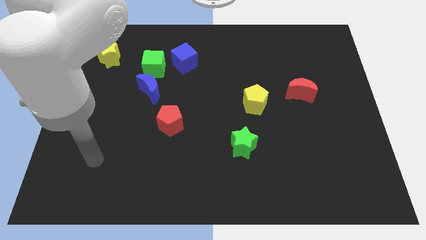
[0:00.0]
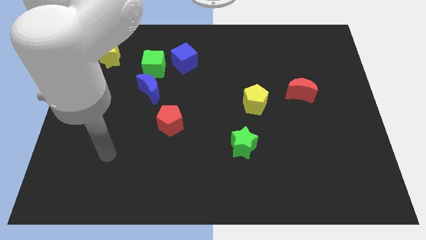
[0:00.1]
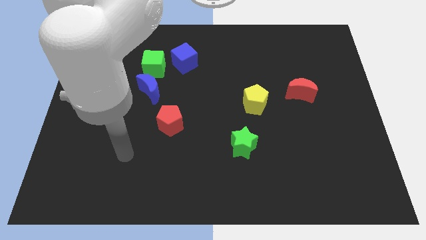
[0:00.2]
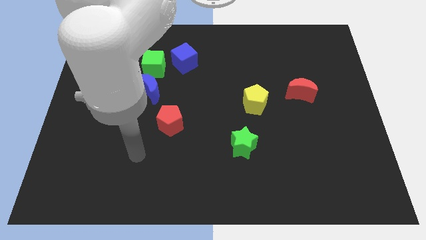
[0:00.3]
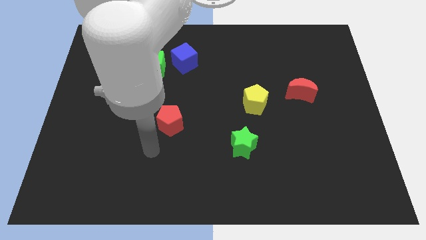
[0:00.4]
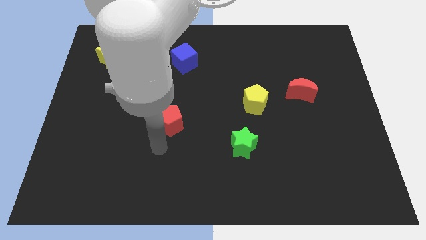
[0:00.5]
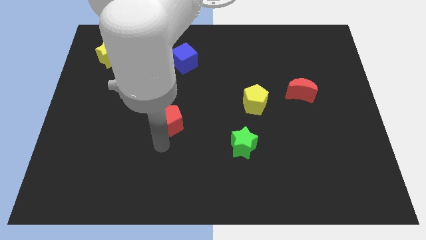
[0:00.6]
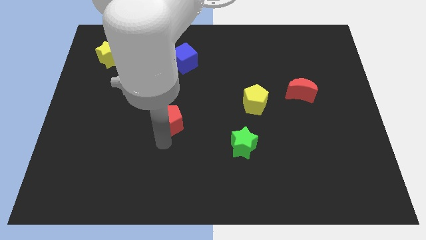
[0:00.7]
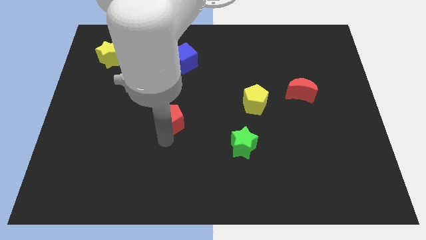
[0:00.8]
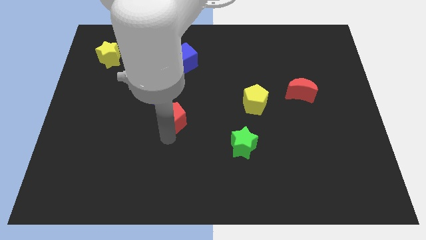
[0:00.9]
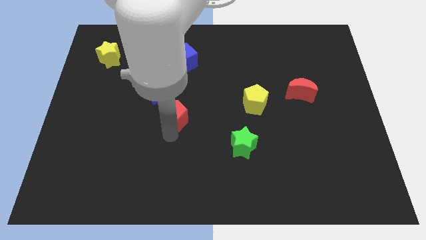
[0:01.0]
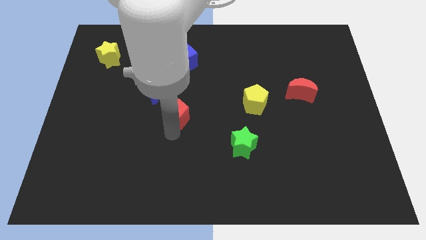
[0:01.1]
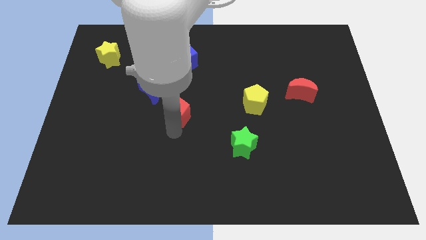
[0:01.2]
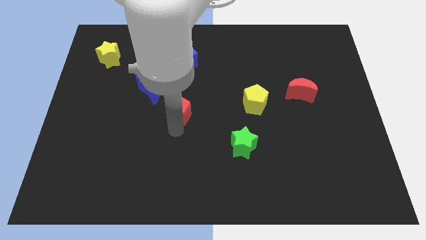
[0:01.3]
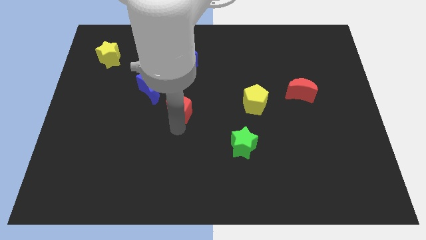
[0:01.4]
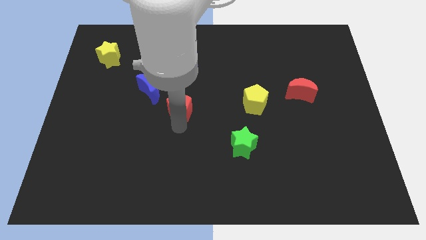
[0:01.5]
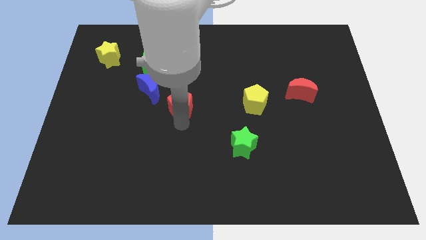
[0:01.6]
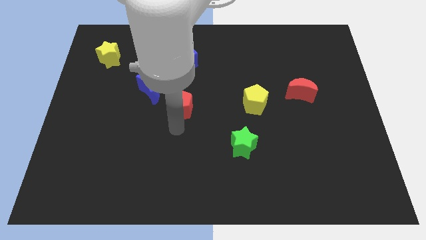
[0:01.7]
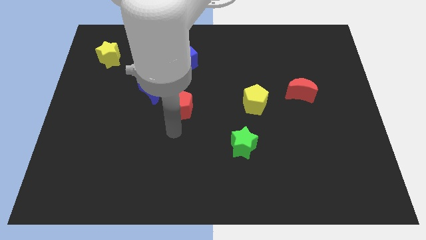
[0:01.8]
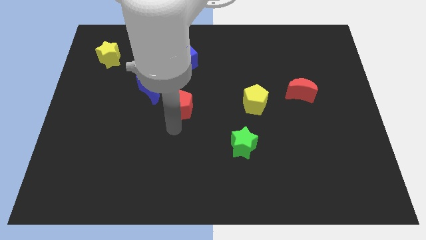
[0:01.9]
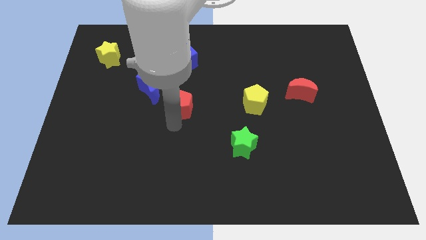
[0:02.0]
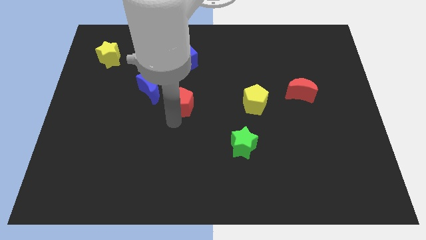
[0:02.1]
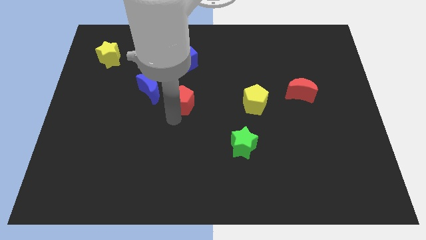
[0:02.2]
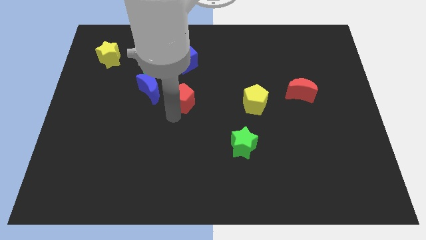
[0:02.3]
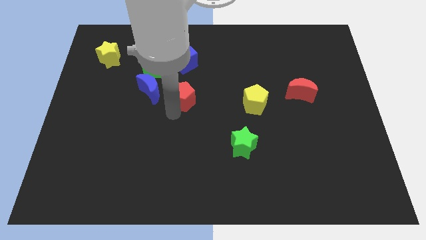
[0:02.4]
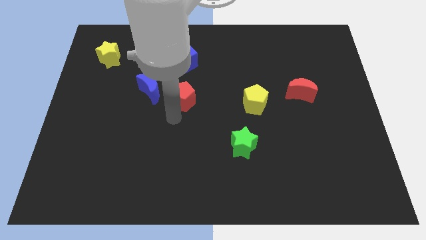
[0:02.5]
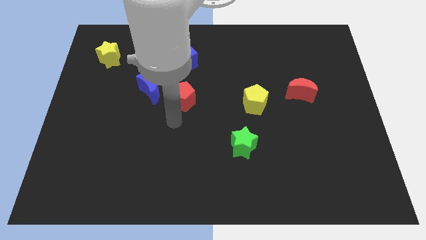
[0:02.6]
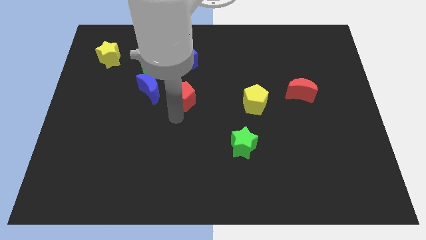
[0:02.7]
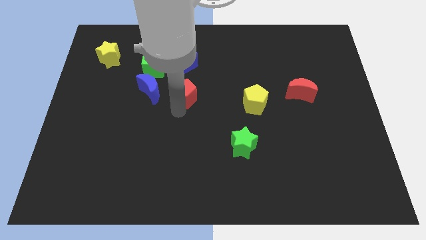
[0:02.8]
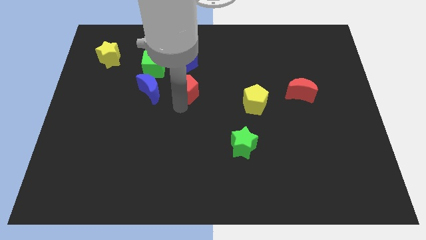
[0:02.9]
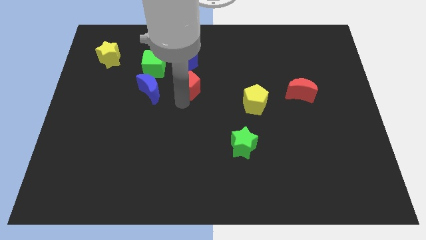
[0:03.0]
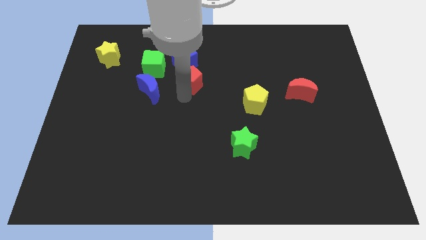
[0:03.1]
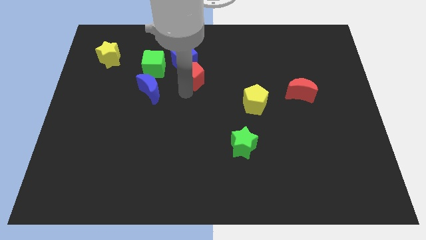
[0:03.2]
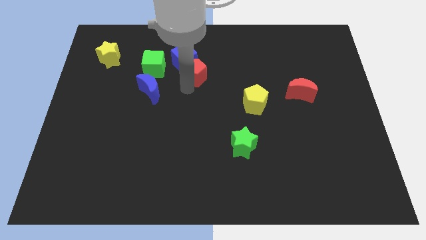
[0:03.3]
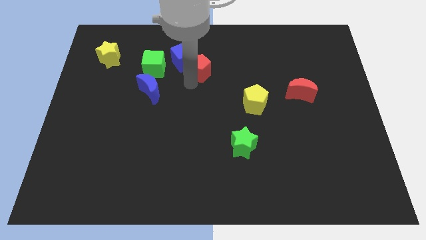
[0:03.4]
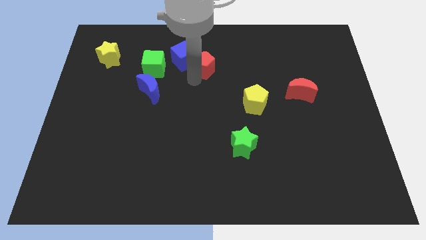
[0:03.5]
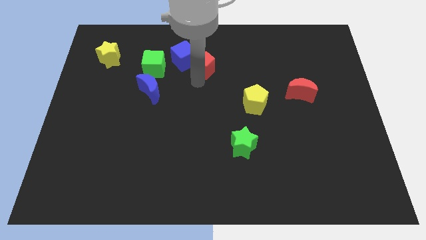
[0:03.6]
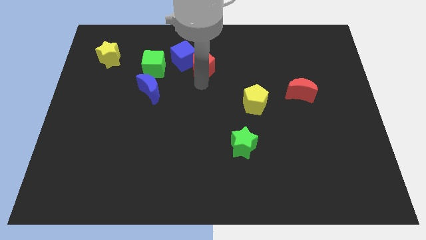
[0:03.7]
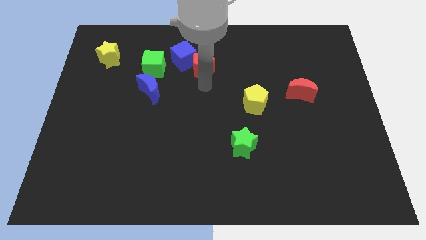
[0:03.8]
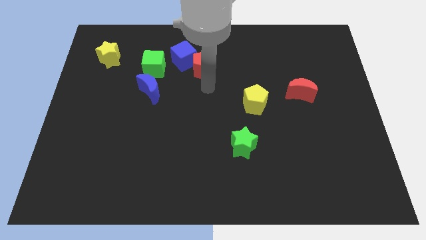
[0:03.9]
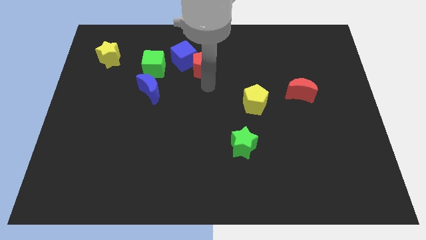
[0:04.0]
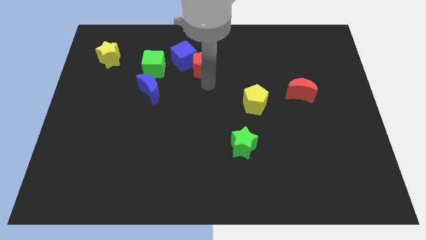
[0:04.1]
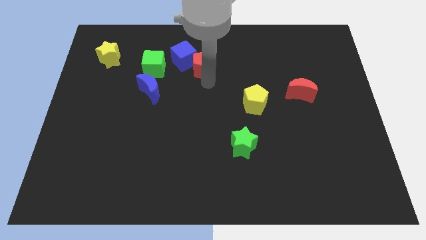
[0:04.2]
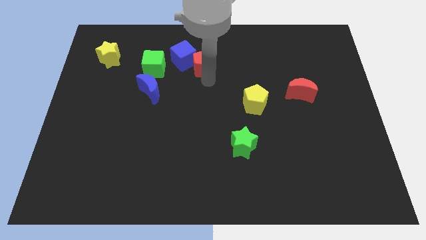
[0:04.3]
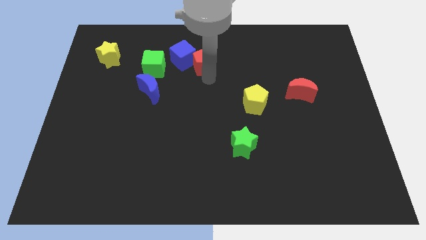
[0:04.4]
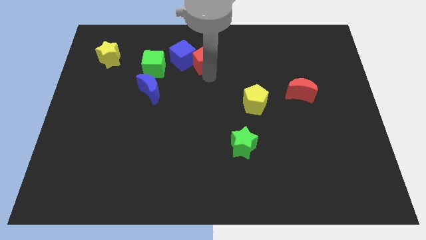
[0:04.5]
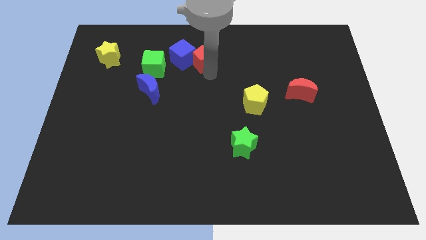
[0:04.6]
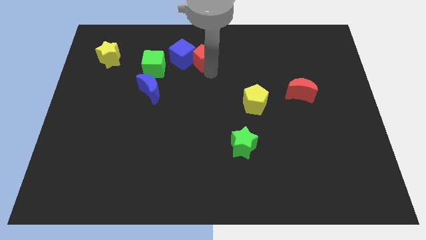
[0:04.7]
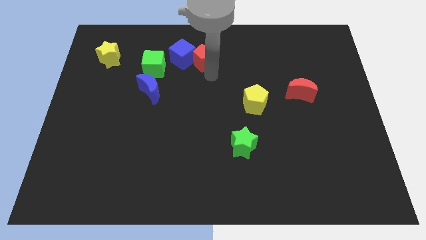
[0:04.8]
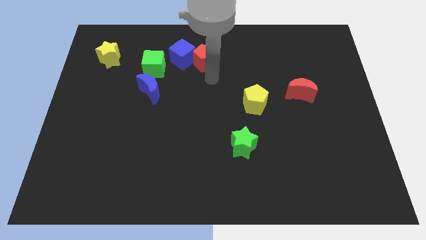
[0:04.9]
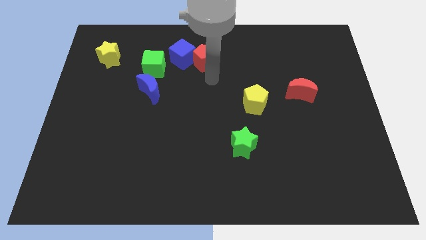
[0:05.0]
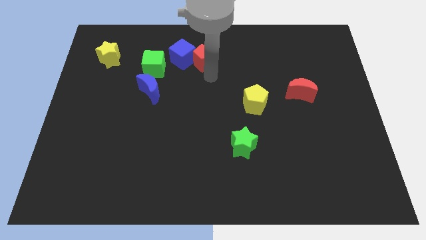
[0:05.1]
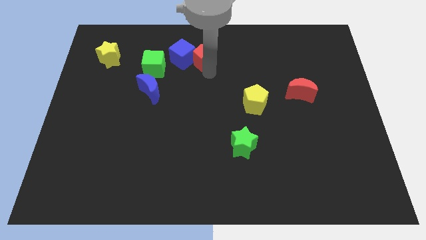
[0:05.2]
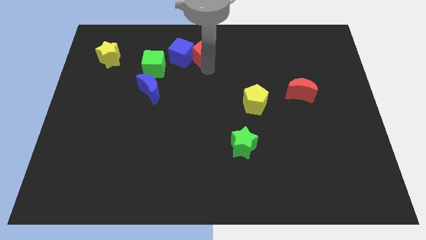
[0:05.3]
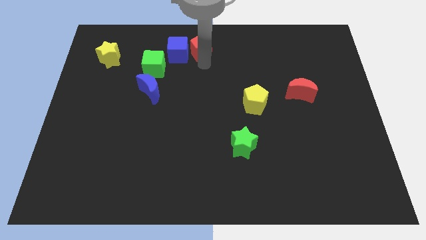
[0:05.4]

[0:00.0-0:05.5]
push the red pentagon to the towards your base
